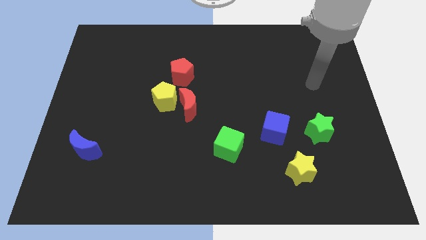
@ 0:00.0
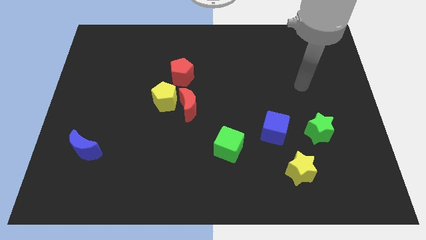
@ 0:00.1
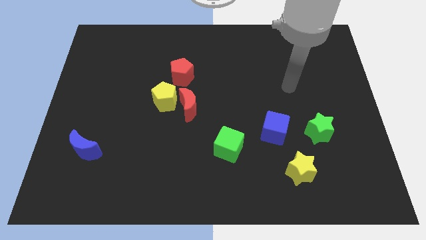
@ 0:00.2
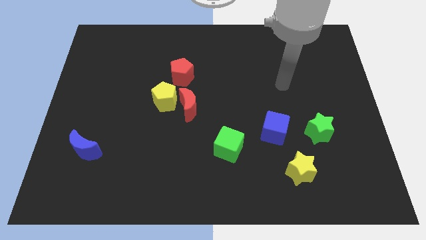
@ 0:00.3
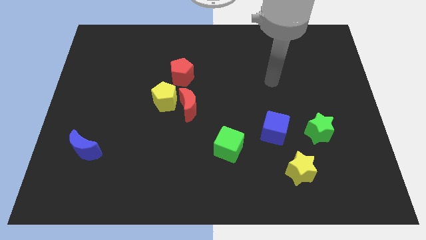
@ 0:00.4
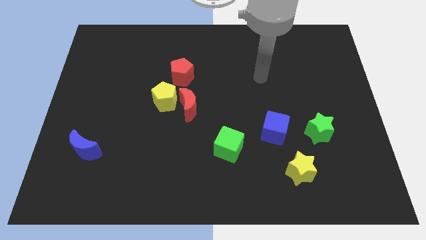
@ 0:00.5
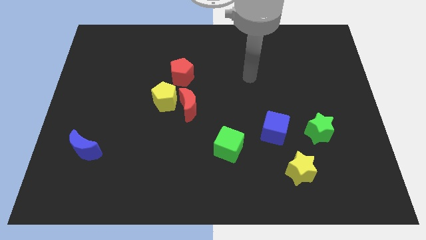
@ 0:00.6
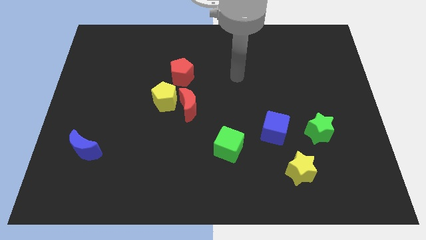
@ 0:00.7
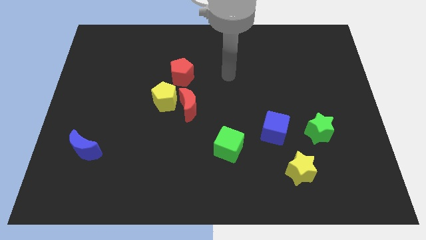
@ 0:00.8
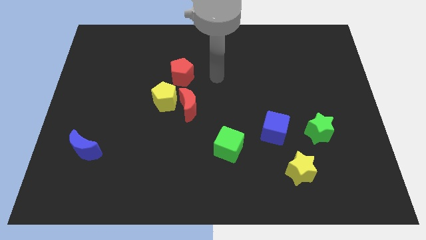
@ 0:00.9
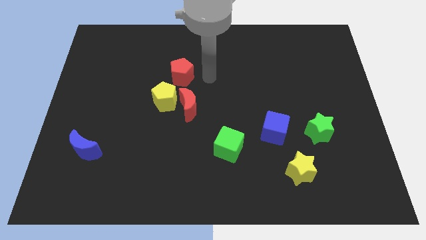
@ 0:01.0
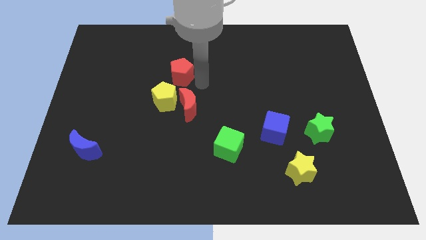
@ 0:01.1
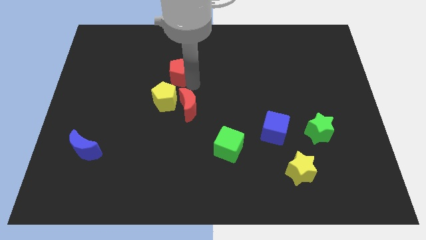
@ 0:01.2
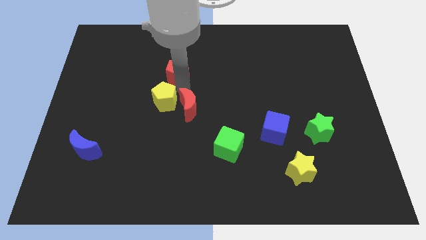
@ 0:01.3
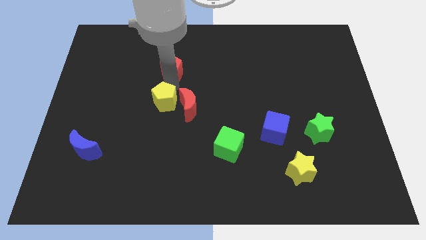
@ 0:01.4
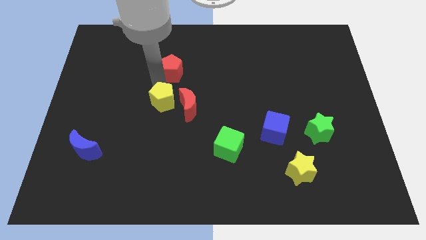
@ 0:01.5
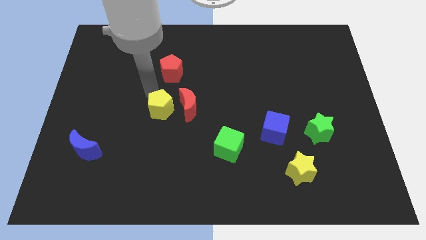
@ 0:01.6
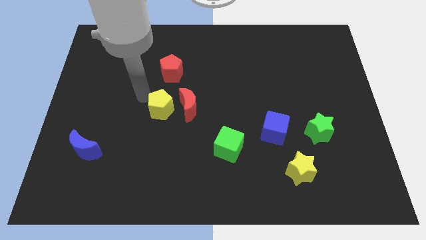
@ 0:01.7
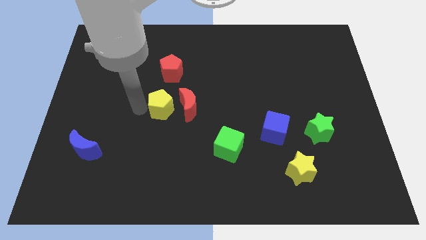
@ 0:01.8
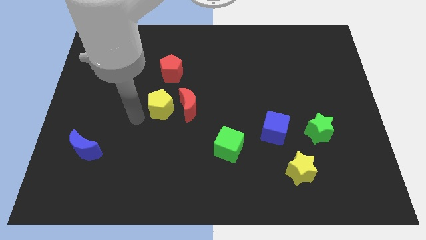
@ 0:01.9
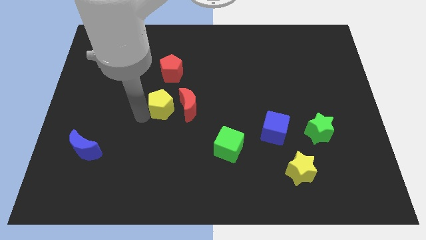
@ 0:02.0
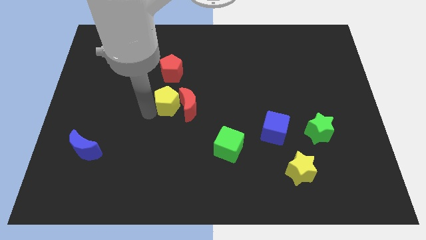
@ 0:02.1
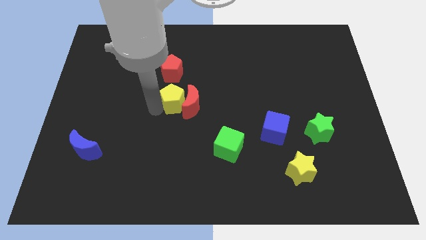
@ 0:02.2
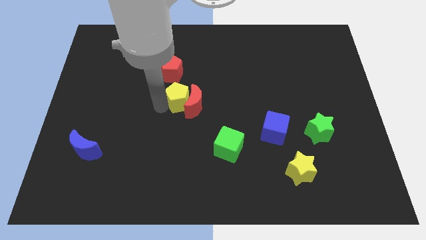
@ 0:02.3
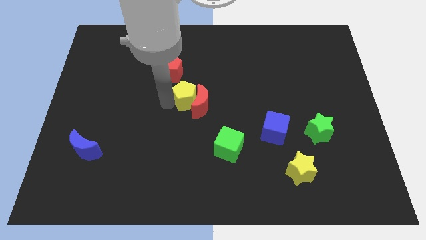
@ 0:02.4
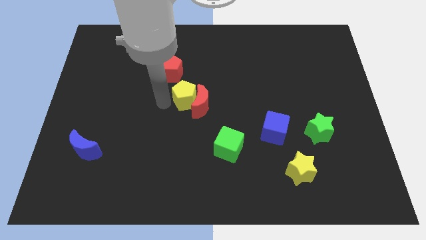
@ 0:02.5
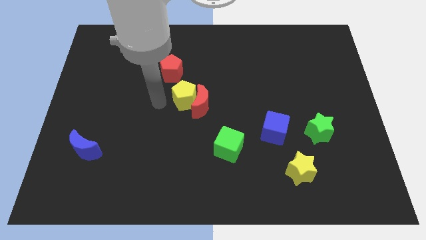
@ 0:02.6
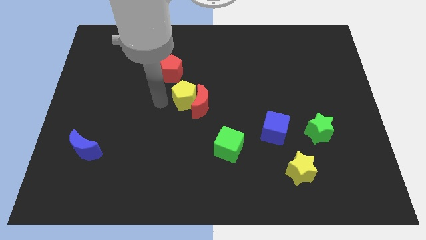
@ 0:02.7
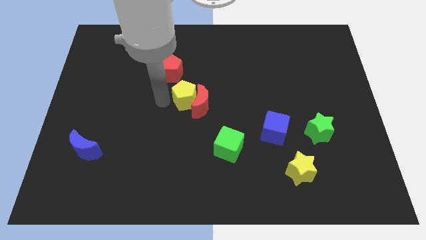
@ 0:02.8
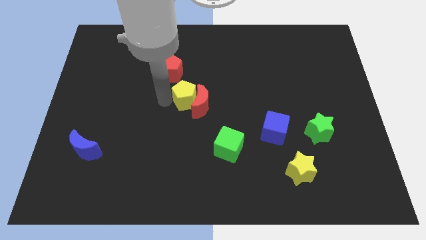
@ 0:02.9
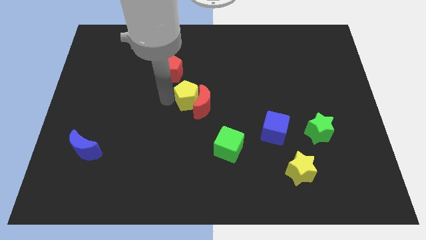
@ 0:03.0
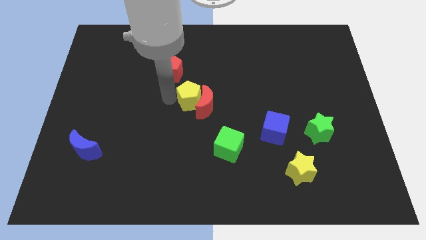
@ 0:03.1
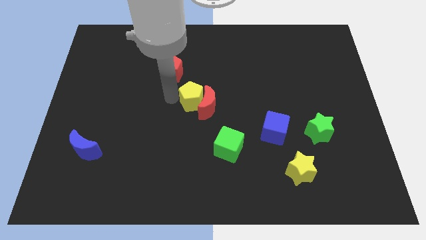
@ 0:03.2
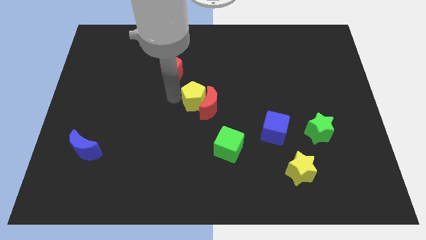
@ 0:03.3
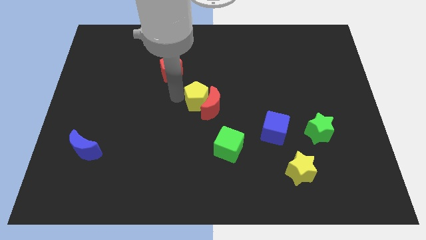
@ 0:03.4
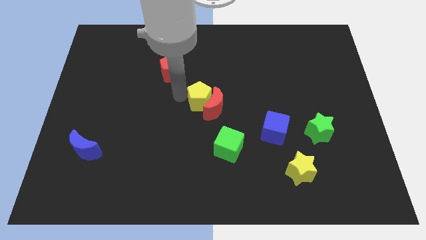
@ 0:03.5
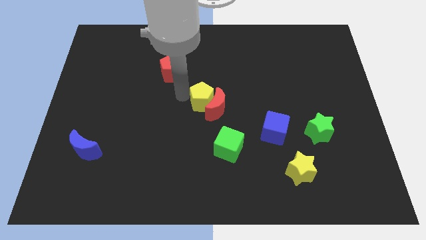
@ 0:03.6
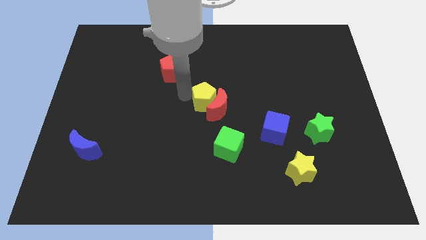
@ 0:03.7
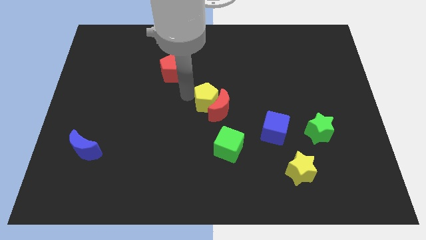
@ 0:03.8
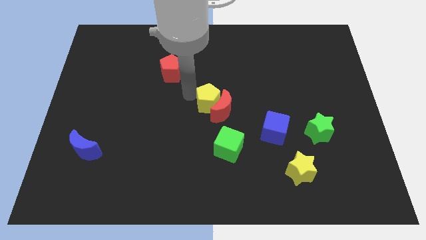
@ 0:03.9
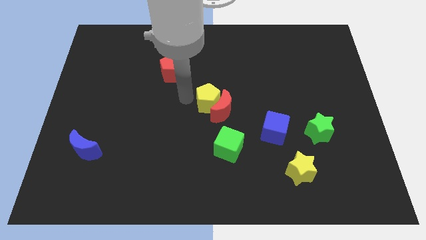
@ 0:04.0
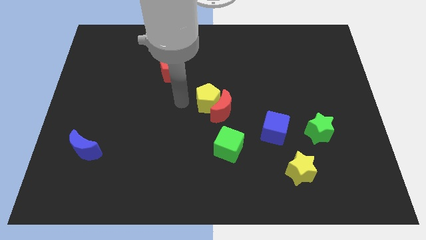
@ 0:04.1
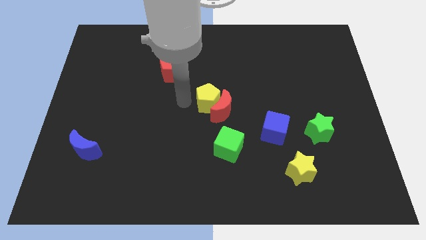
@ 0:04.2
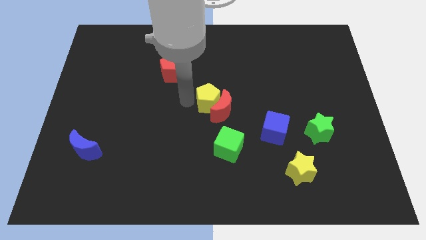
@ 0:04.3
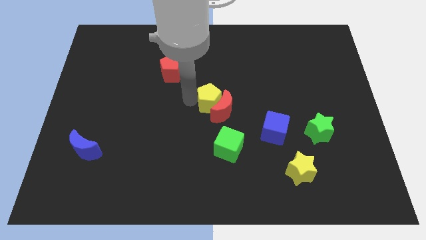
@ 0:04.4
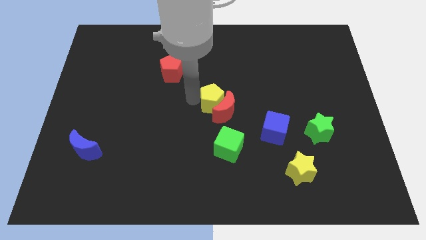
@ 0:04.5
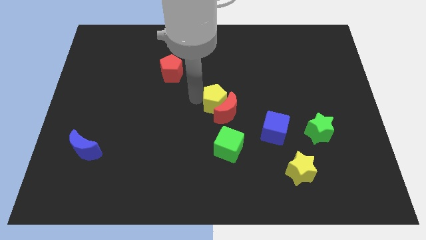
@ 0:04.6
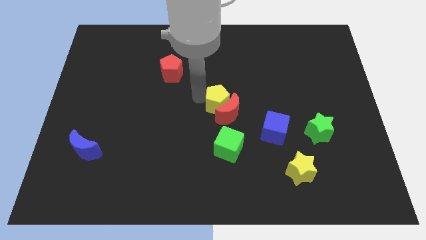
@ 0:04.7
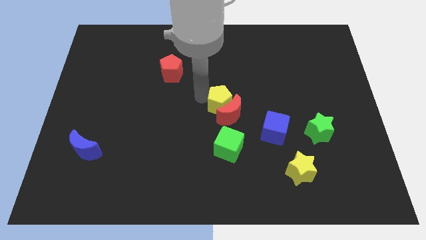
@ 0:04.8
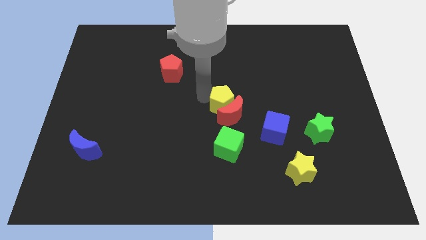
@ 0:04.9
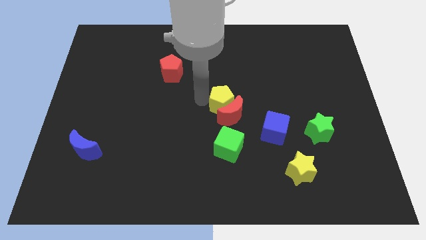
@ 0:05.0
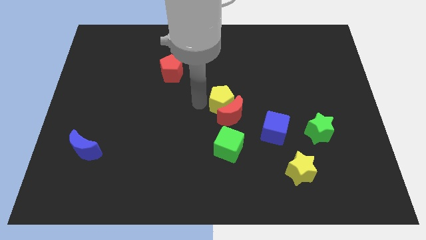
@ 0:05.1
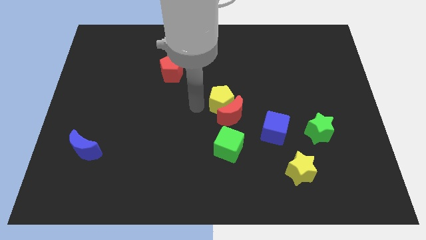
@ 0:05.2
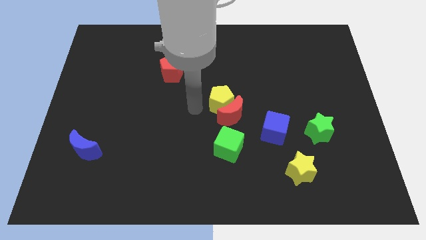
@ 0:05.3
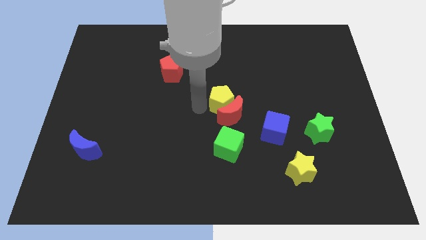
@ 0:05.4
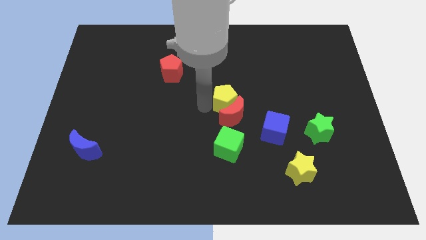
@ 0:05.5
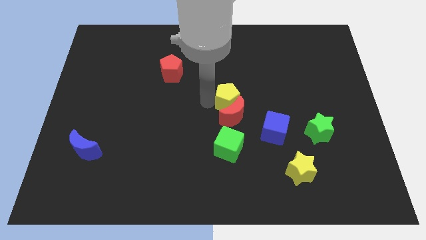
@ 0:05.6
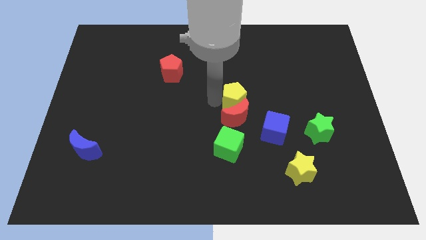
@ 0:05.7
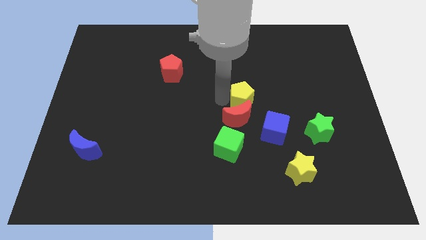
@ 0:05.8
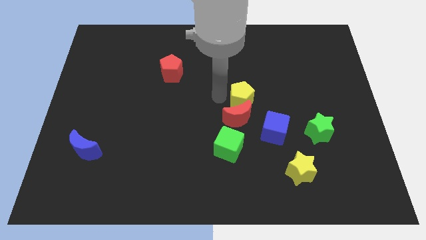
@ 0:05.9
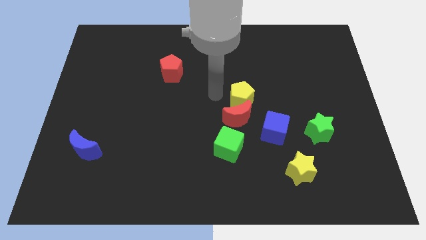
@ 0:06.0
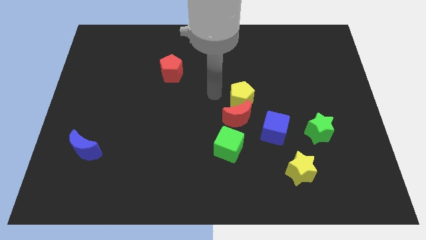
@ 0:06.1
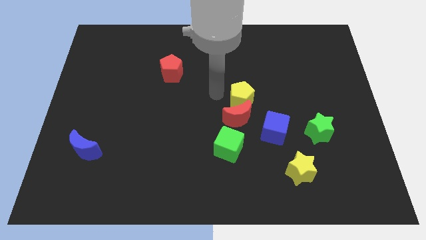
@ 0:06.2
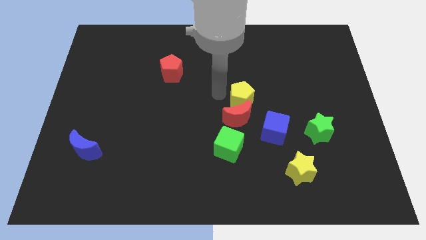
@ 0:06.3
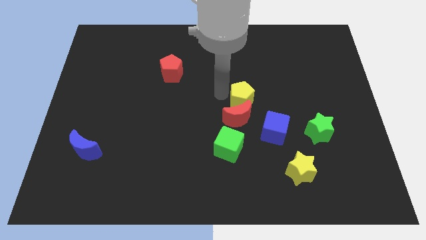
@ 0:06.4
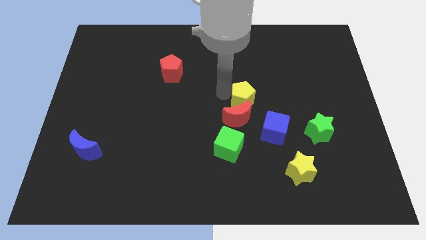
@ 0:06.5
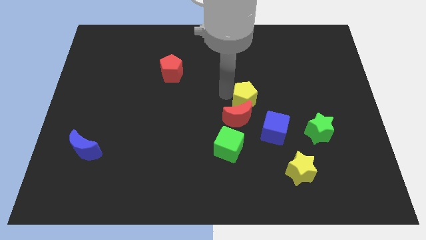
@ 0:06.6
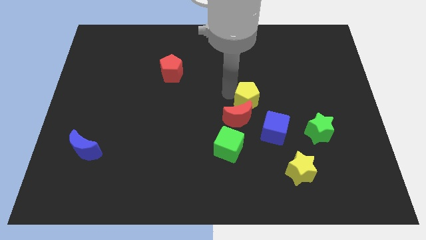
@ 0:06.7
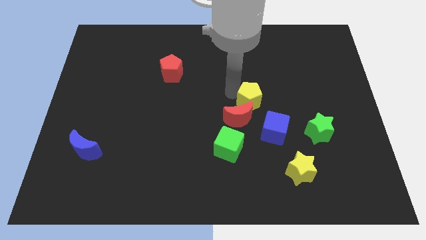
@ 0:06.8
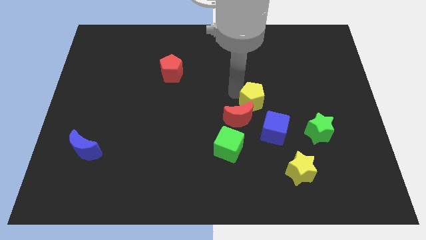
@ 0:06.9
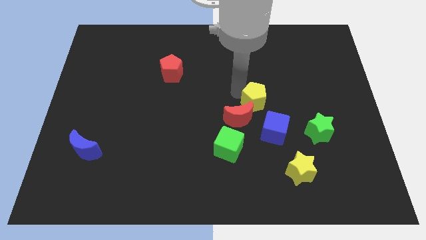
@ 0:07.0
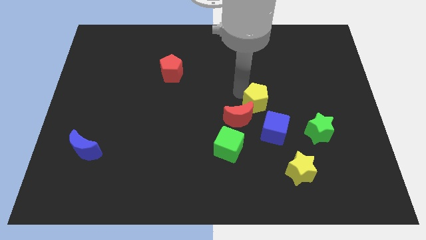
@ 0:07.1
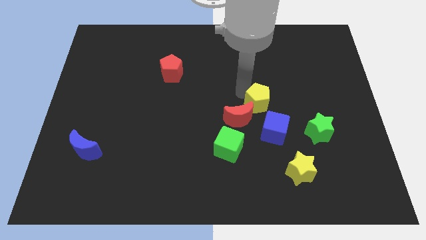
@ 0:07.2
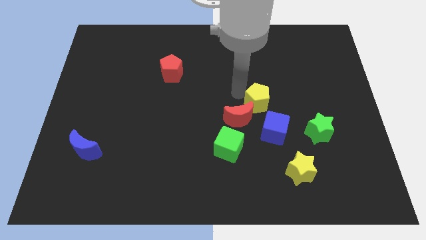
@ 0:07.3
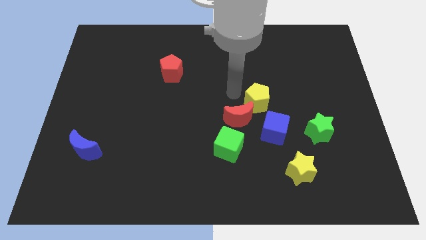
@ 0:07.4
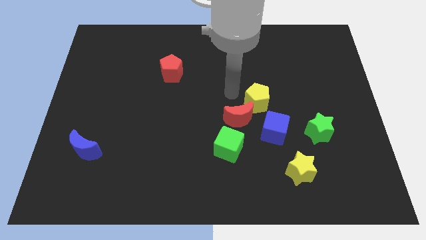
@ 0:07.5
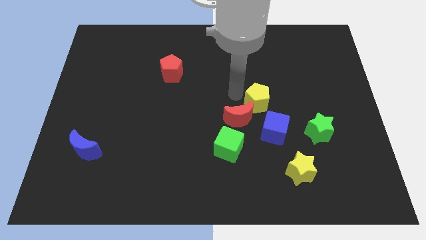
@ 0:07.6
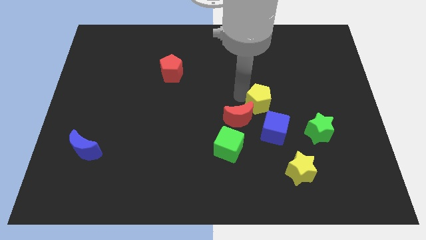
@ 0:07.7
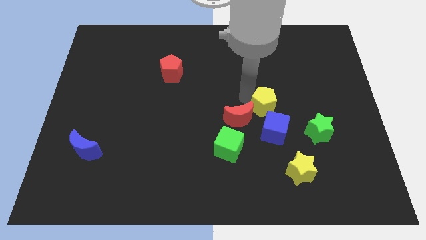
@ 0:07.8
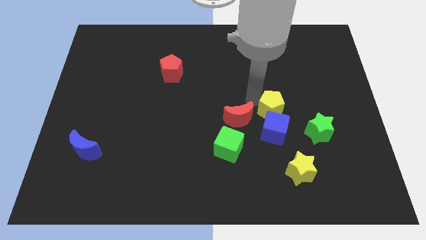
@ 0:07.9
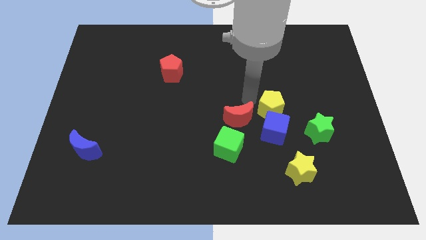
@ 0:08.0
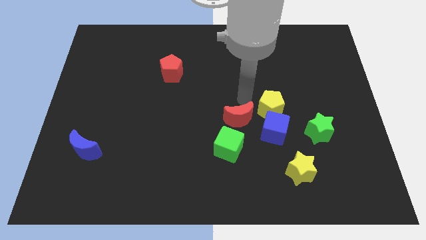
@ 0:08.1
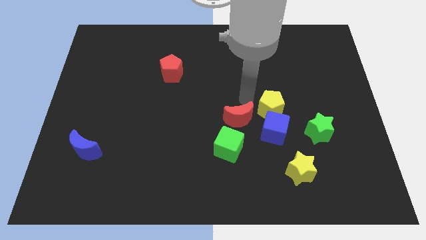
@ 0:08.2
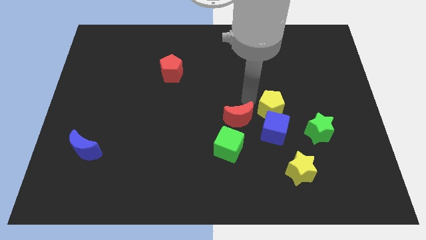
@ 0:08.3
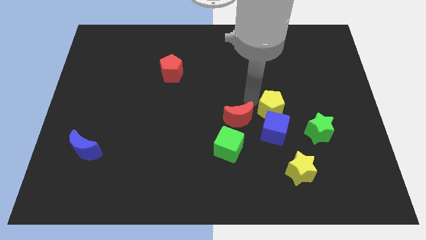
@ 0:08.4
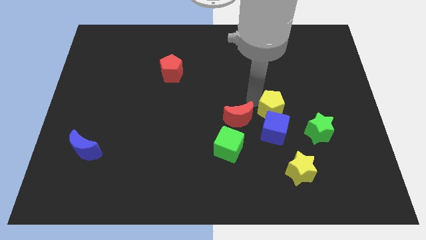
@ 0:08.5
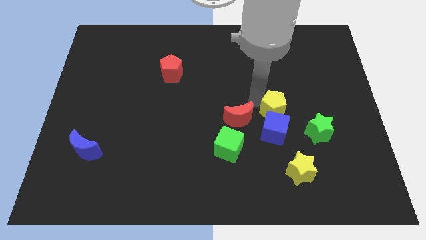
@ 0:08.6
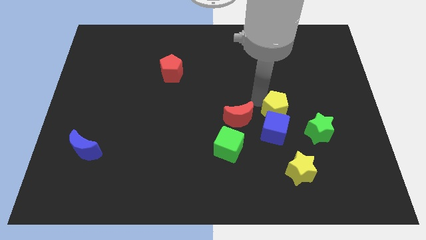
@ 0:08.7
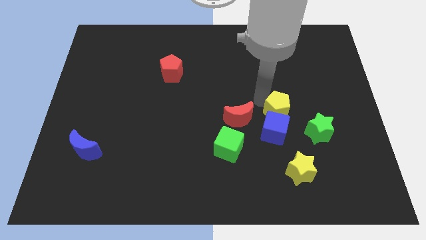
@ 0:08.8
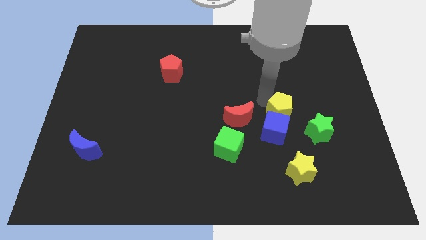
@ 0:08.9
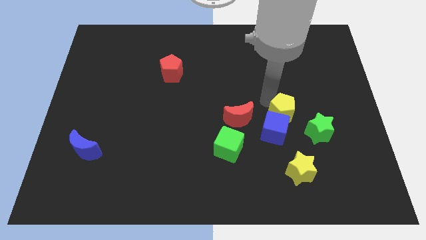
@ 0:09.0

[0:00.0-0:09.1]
move the yellow pentagon to the top of the yellow star
